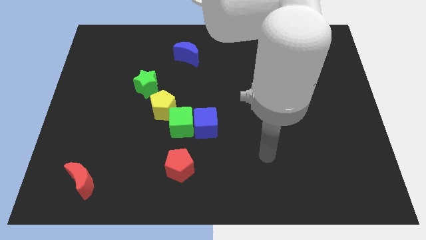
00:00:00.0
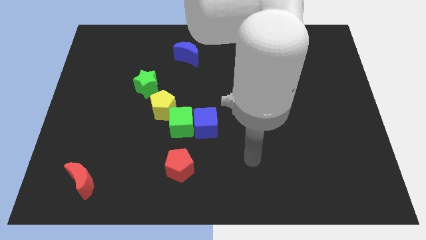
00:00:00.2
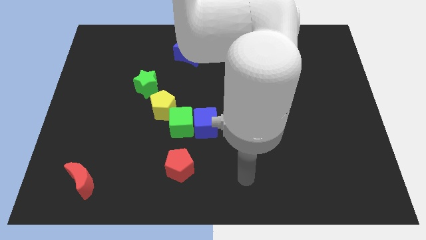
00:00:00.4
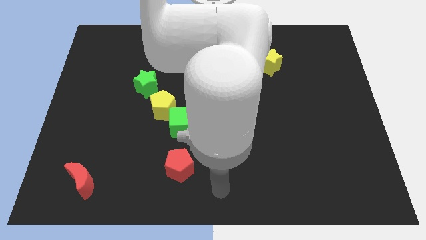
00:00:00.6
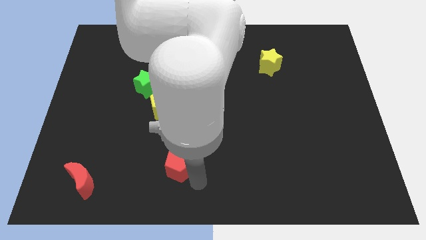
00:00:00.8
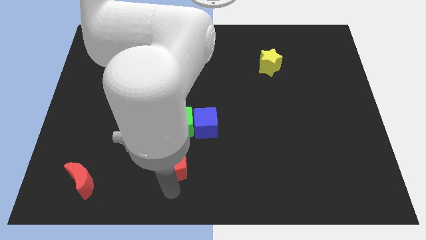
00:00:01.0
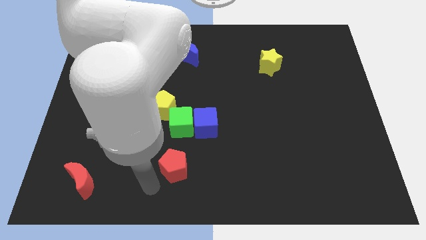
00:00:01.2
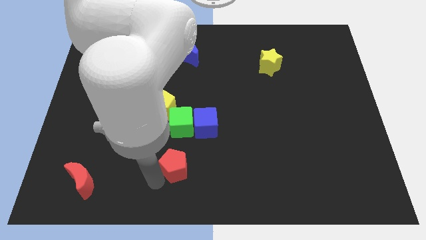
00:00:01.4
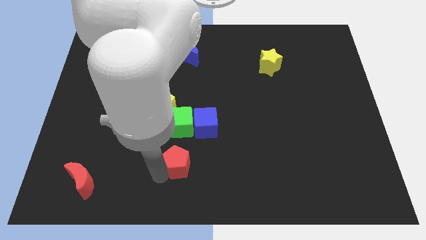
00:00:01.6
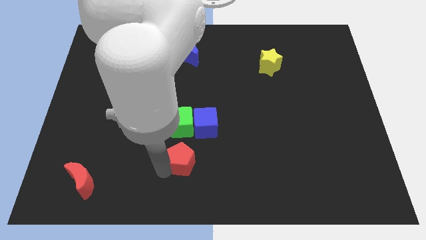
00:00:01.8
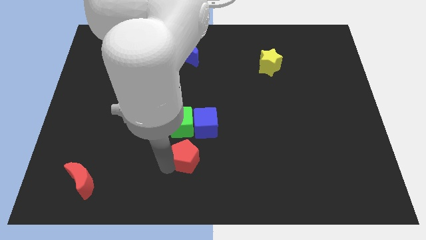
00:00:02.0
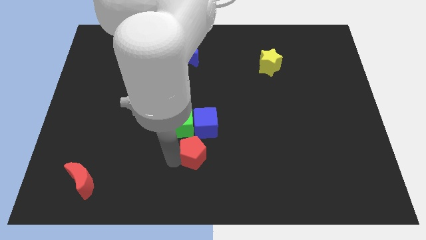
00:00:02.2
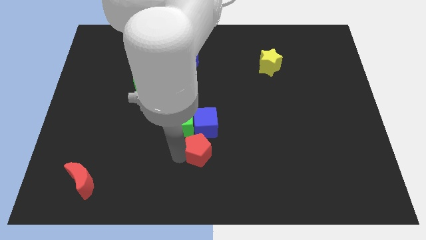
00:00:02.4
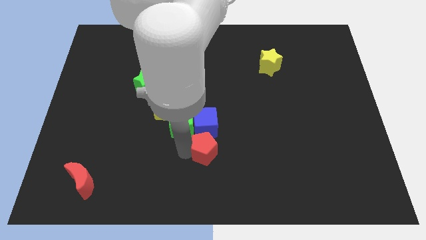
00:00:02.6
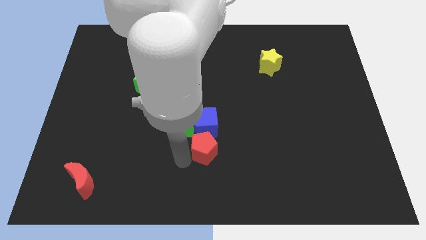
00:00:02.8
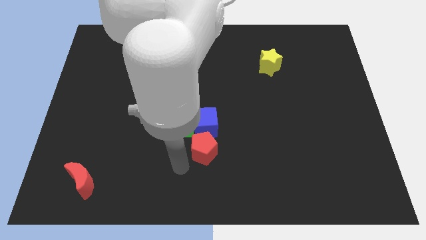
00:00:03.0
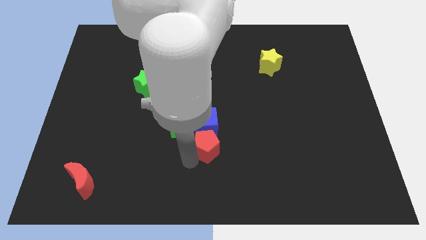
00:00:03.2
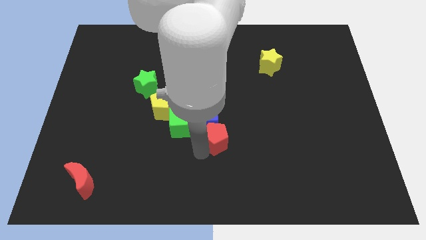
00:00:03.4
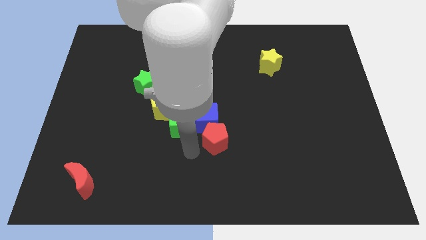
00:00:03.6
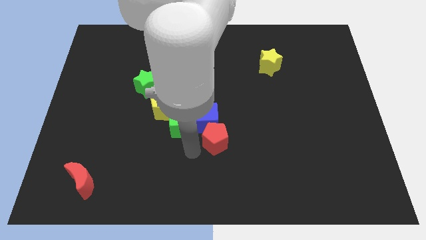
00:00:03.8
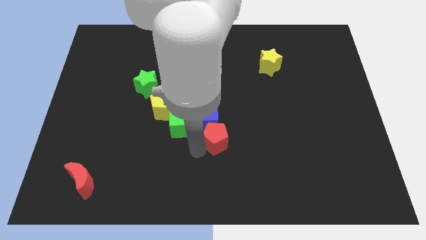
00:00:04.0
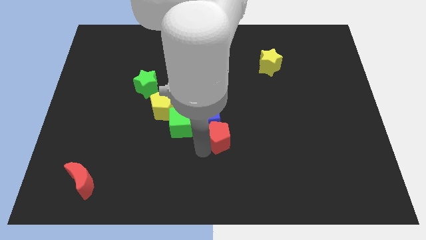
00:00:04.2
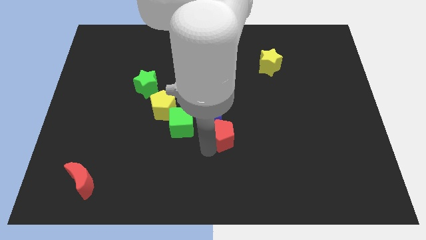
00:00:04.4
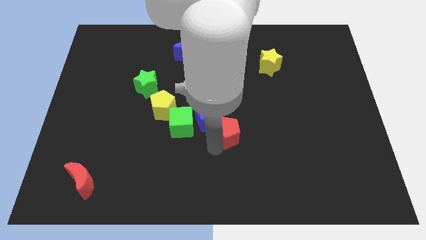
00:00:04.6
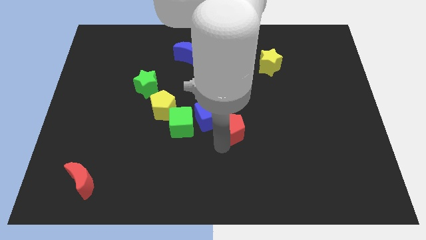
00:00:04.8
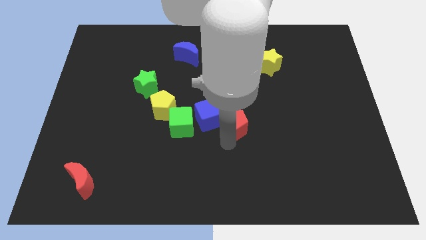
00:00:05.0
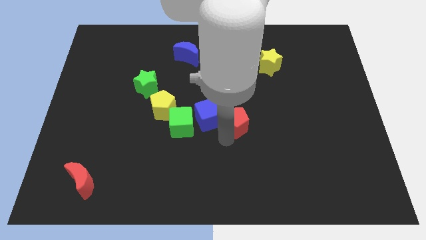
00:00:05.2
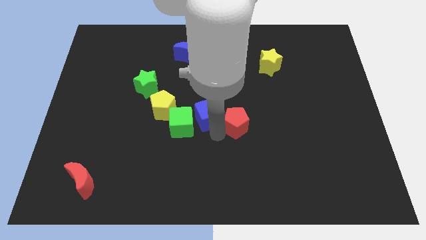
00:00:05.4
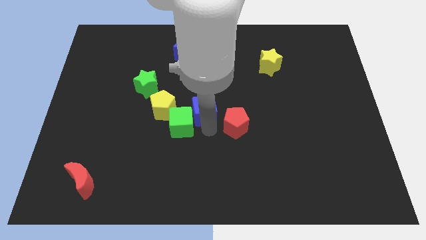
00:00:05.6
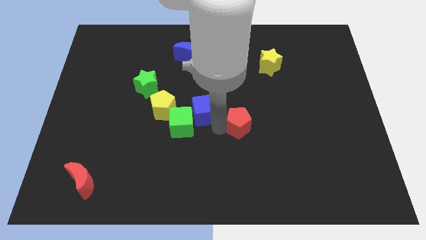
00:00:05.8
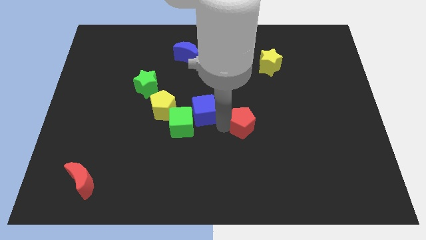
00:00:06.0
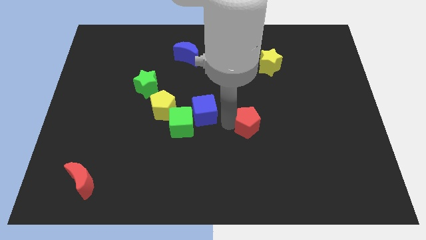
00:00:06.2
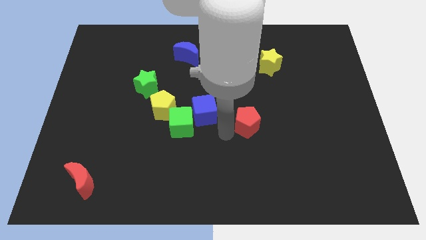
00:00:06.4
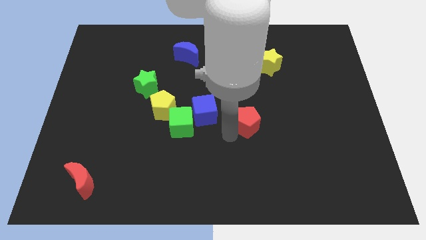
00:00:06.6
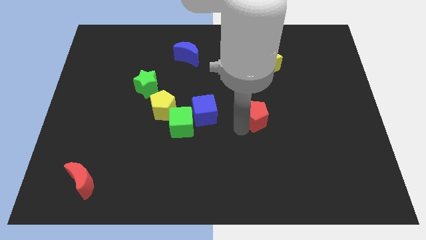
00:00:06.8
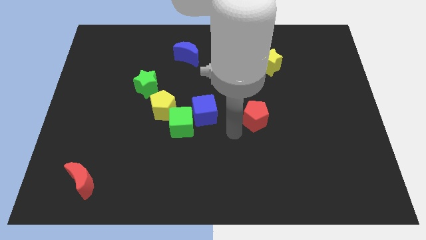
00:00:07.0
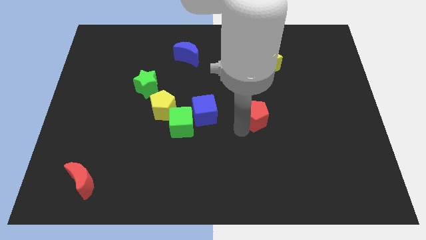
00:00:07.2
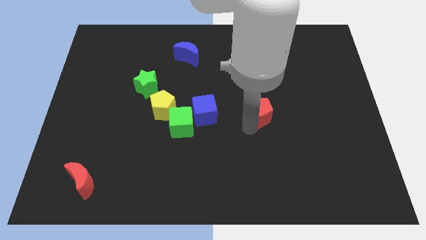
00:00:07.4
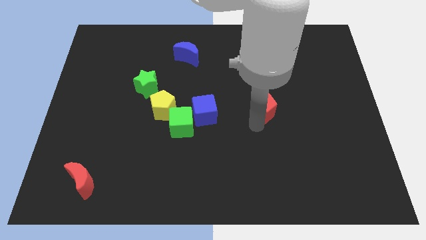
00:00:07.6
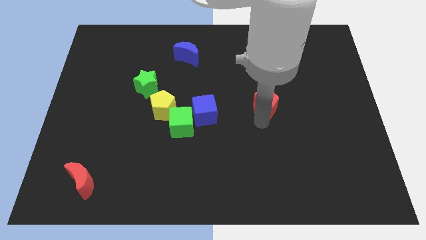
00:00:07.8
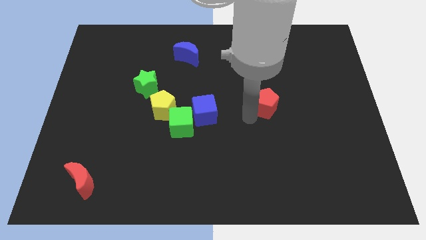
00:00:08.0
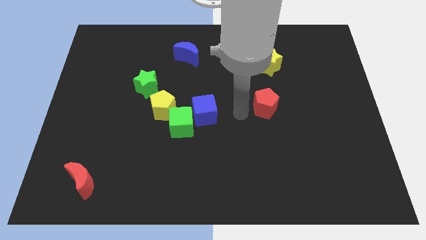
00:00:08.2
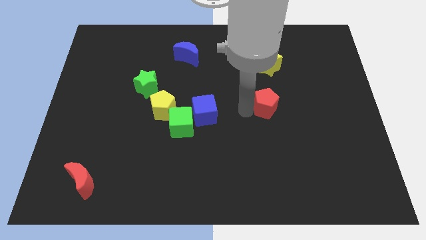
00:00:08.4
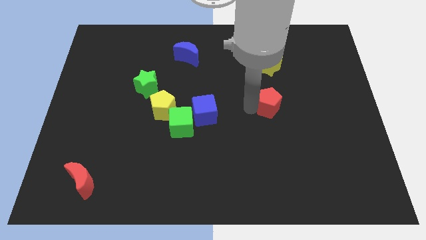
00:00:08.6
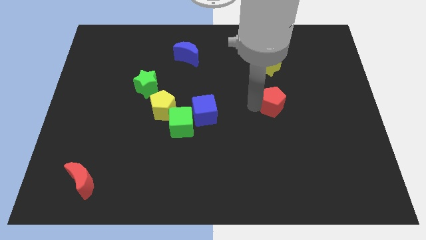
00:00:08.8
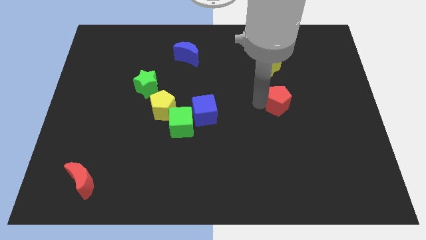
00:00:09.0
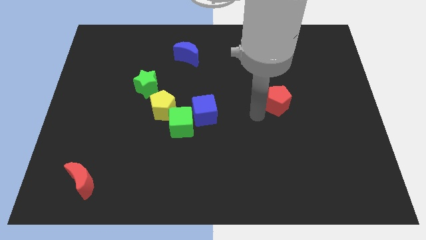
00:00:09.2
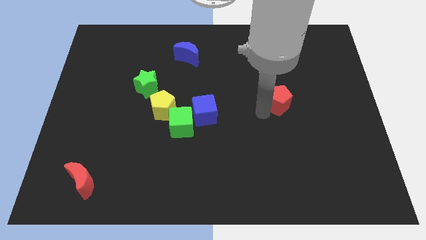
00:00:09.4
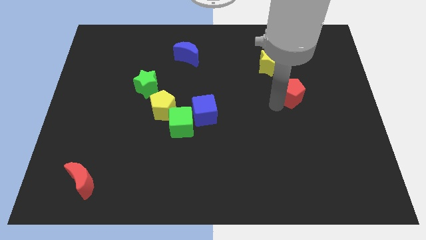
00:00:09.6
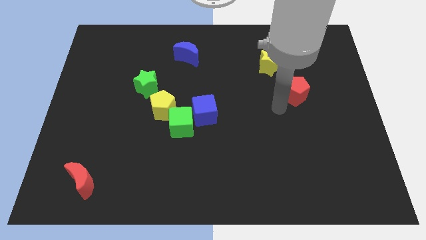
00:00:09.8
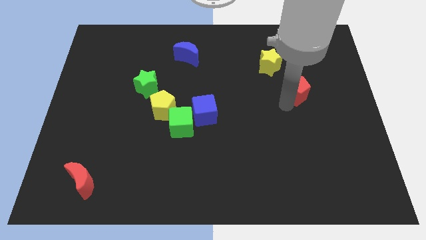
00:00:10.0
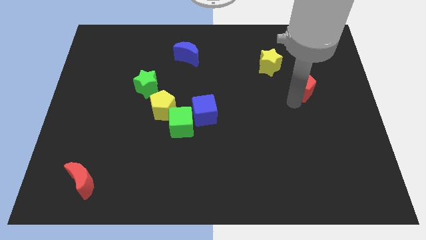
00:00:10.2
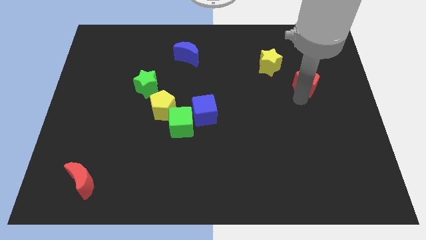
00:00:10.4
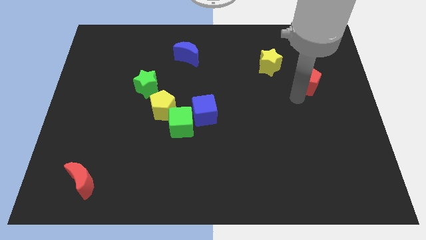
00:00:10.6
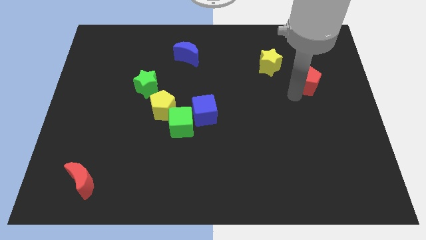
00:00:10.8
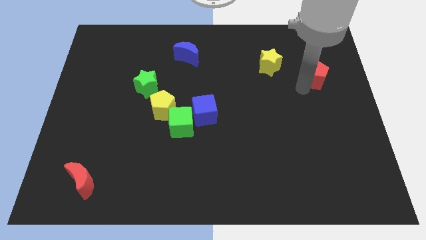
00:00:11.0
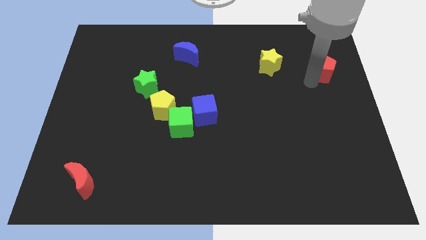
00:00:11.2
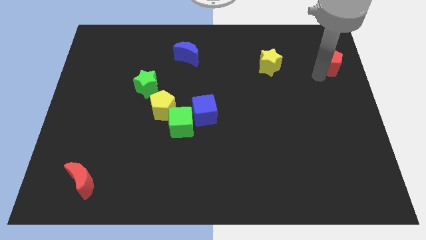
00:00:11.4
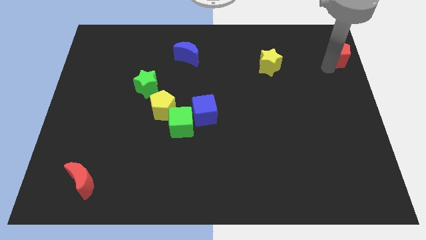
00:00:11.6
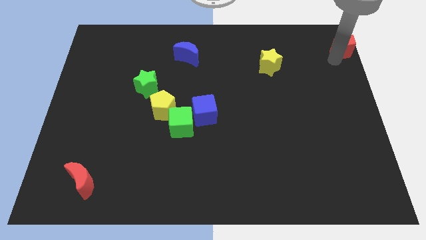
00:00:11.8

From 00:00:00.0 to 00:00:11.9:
put the red pentagon to the upper right corner

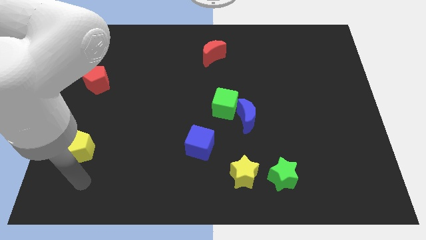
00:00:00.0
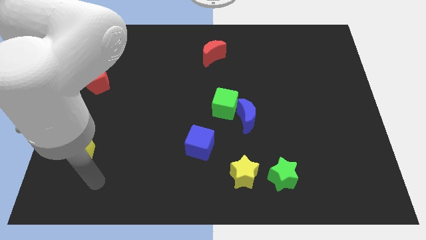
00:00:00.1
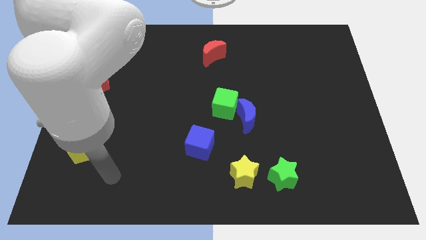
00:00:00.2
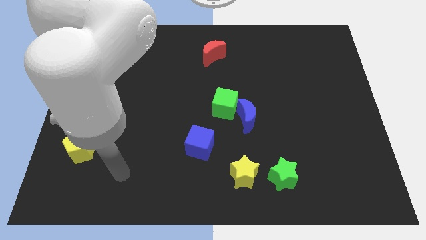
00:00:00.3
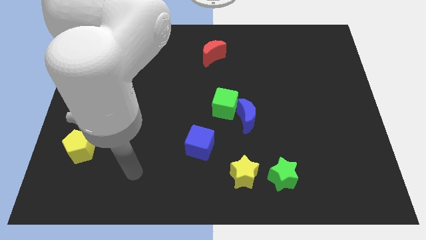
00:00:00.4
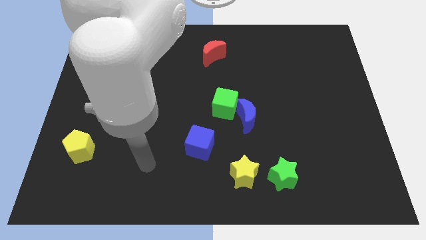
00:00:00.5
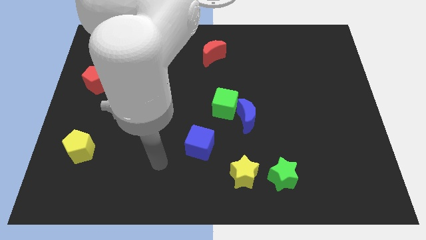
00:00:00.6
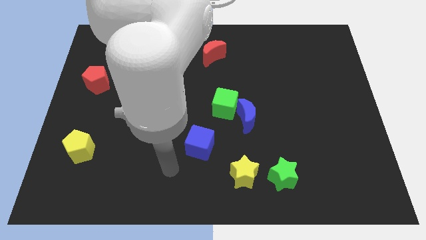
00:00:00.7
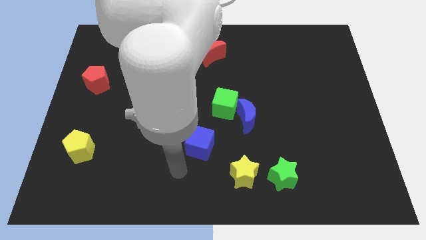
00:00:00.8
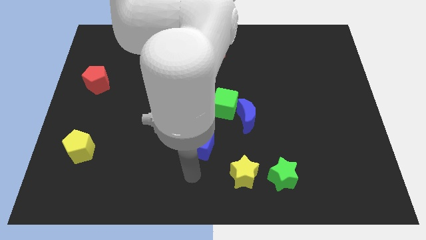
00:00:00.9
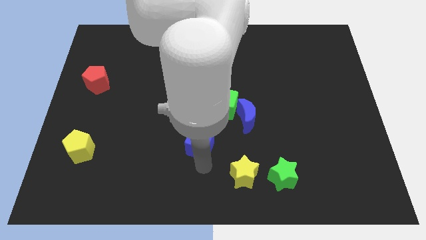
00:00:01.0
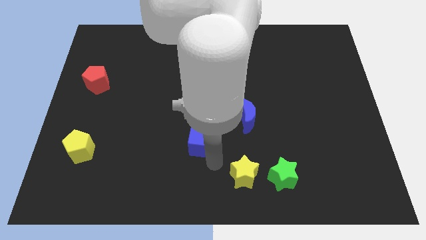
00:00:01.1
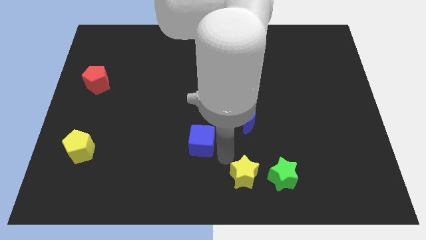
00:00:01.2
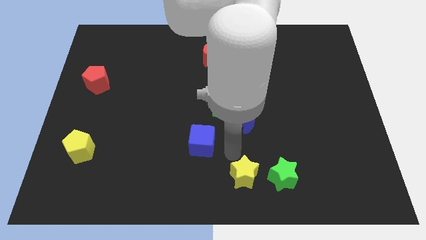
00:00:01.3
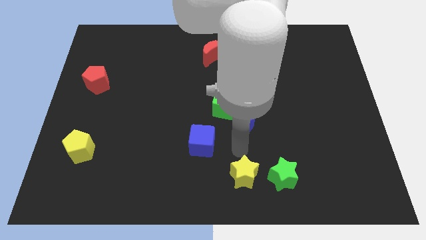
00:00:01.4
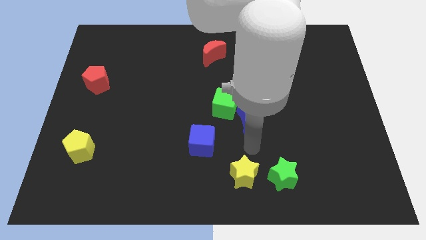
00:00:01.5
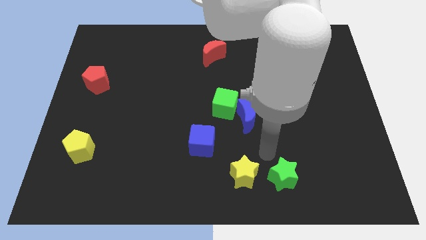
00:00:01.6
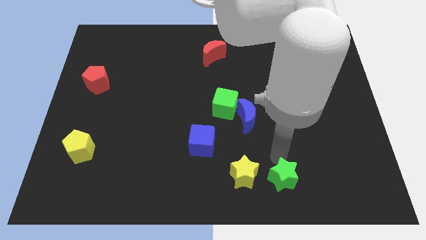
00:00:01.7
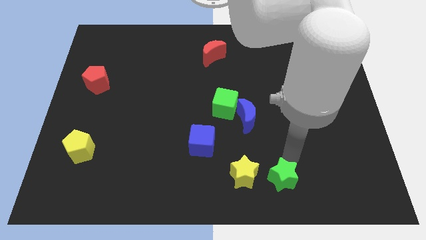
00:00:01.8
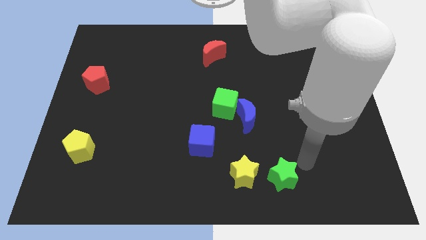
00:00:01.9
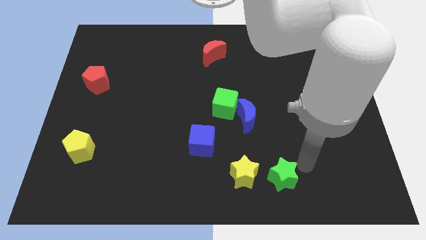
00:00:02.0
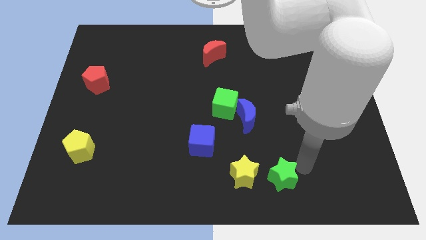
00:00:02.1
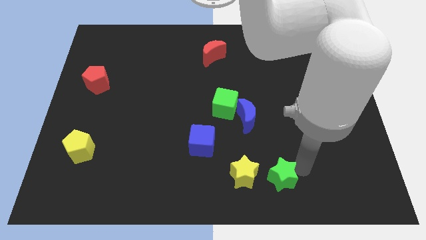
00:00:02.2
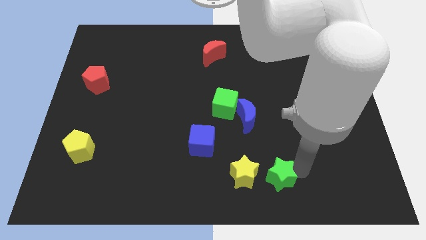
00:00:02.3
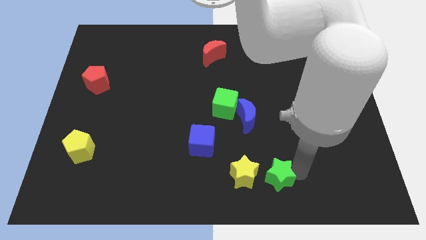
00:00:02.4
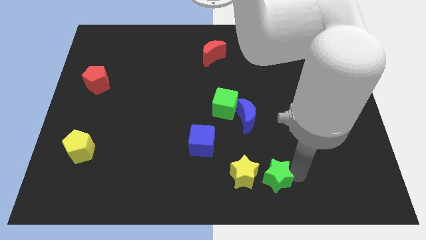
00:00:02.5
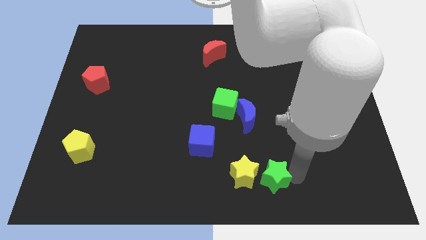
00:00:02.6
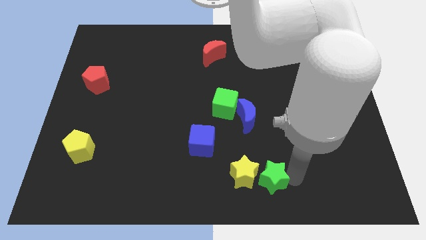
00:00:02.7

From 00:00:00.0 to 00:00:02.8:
put the green star to the bottom side
